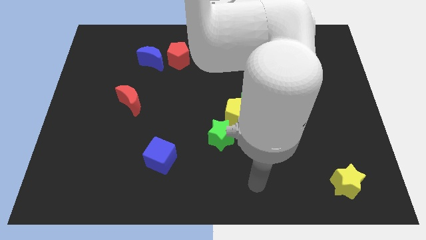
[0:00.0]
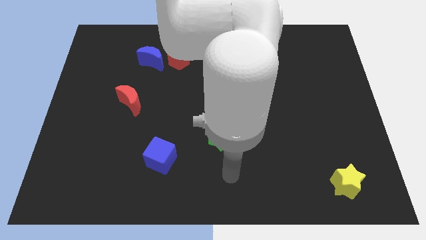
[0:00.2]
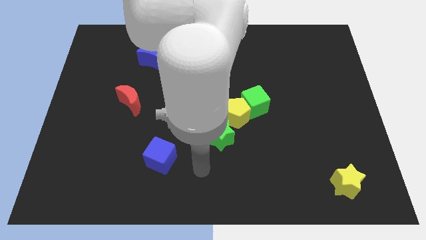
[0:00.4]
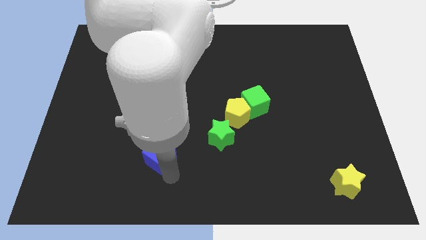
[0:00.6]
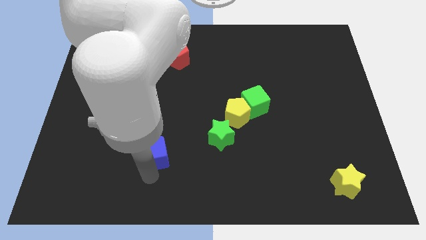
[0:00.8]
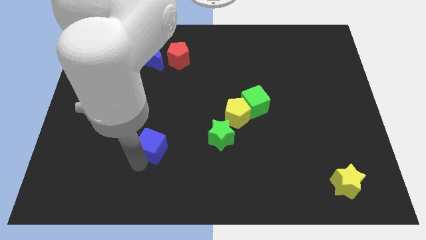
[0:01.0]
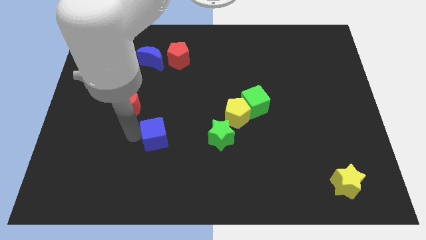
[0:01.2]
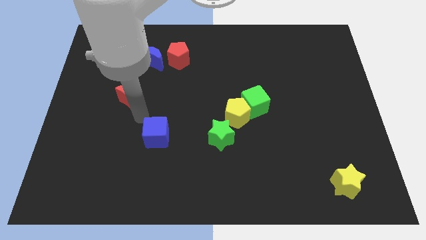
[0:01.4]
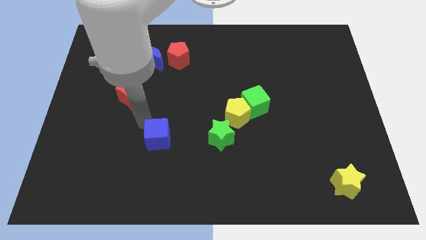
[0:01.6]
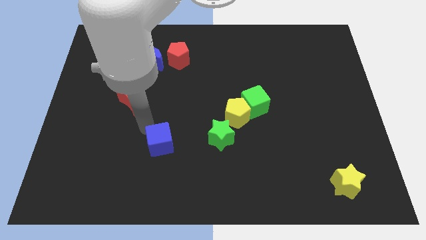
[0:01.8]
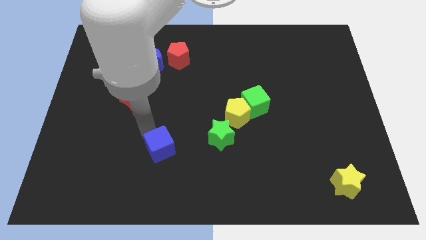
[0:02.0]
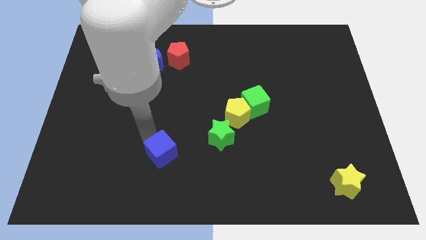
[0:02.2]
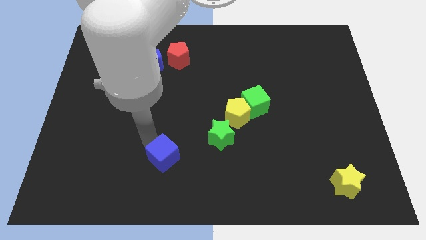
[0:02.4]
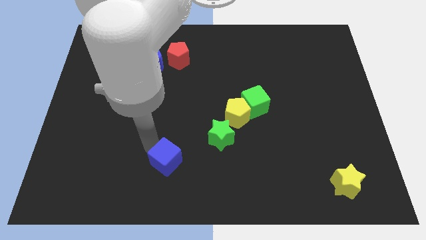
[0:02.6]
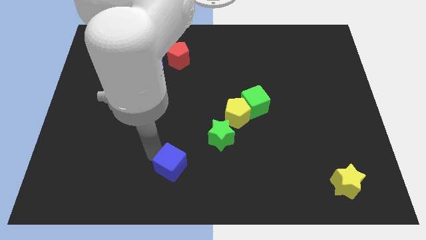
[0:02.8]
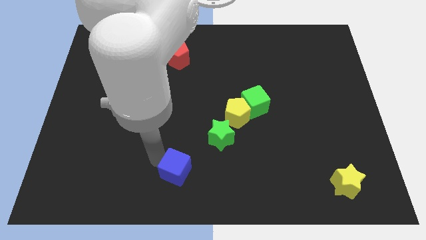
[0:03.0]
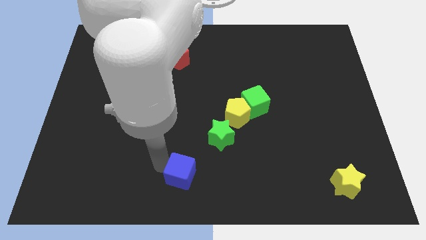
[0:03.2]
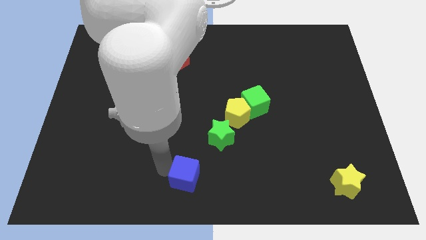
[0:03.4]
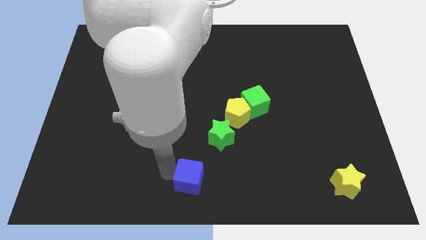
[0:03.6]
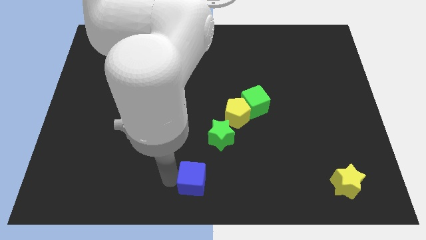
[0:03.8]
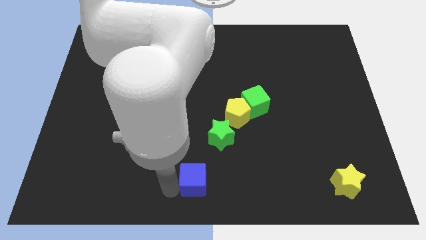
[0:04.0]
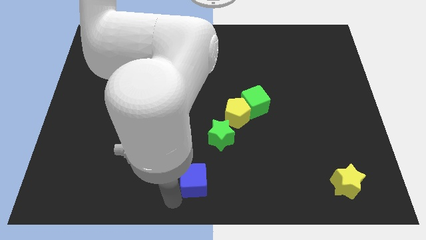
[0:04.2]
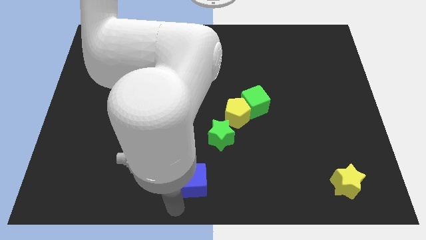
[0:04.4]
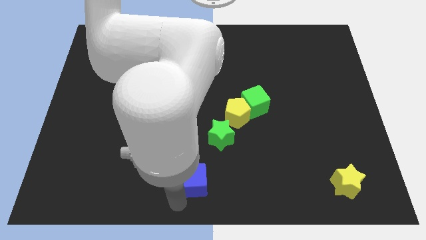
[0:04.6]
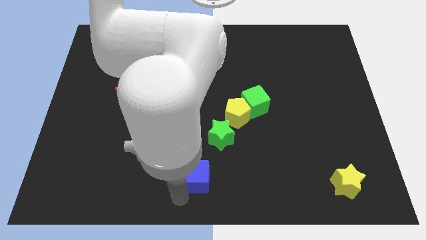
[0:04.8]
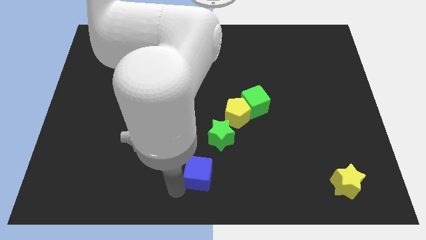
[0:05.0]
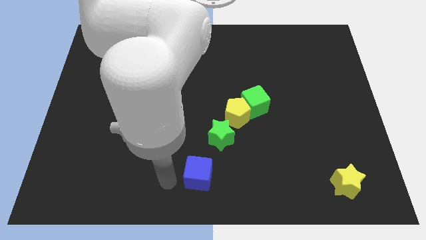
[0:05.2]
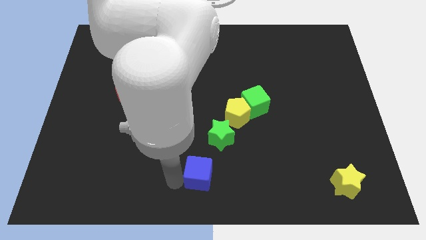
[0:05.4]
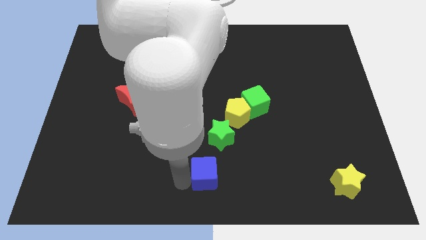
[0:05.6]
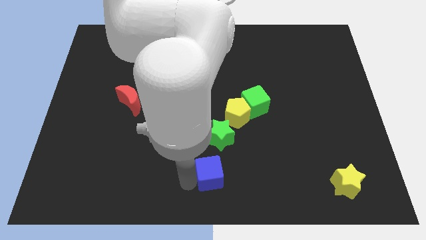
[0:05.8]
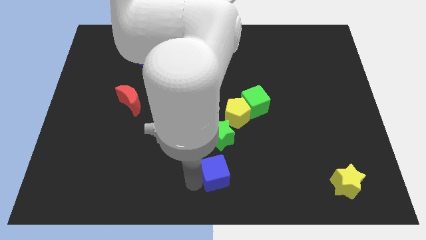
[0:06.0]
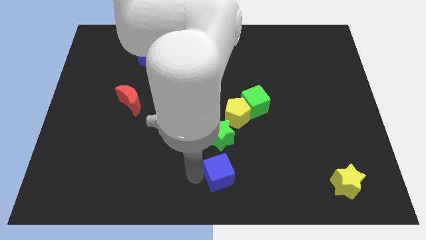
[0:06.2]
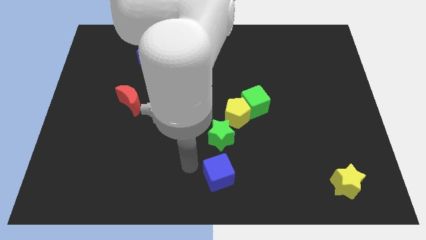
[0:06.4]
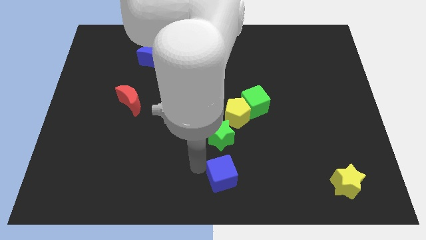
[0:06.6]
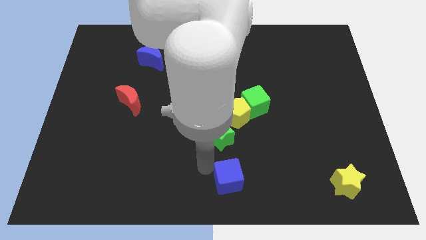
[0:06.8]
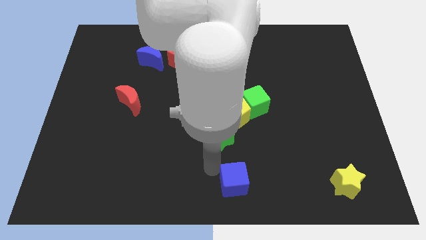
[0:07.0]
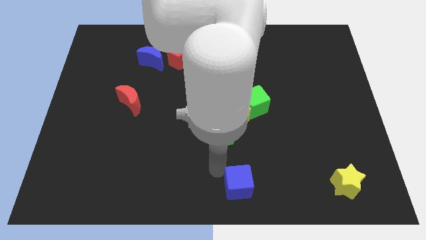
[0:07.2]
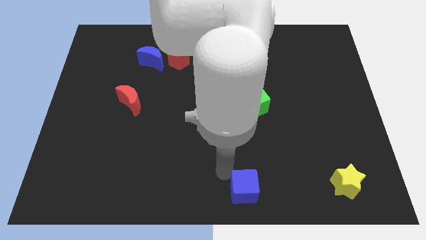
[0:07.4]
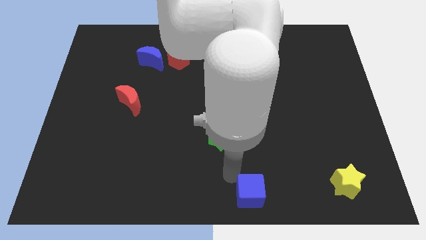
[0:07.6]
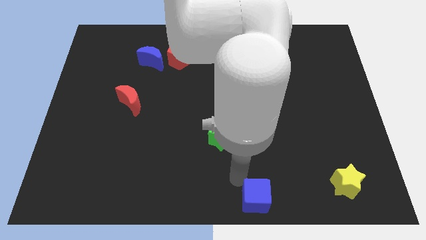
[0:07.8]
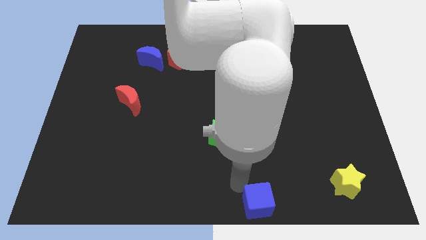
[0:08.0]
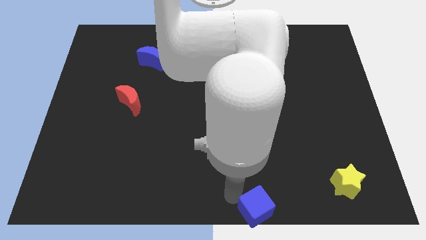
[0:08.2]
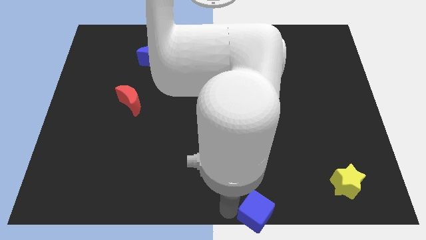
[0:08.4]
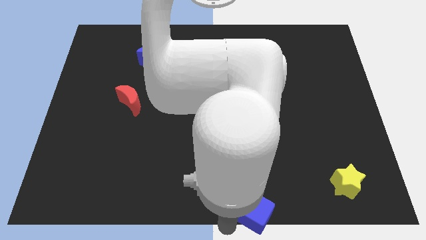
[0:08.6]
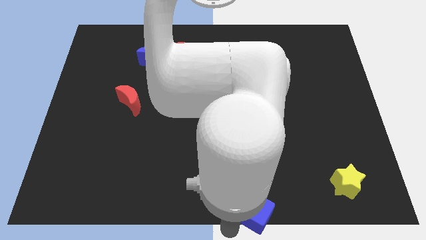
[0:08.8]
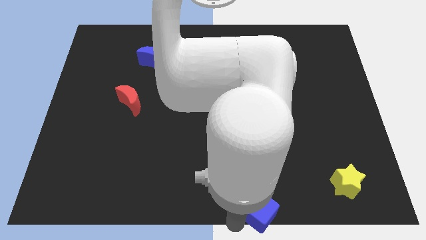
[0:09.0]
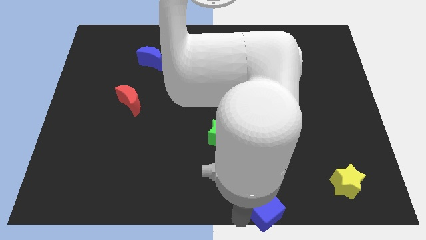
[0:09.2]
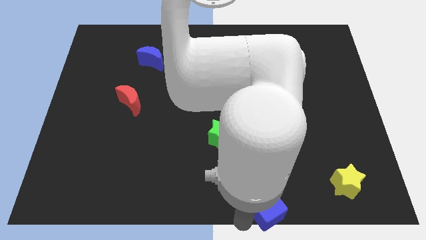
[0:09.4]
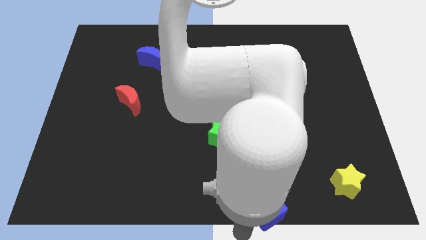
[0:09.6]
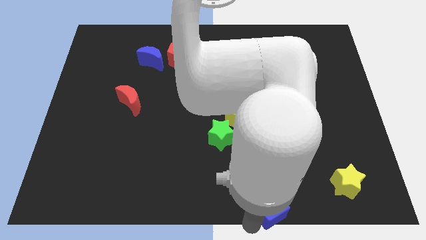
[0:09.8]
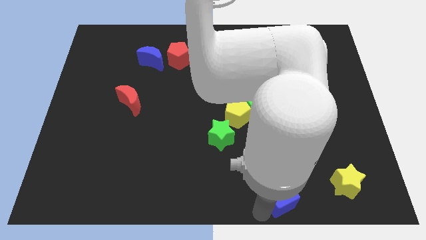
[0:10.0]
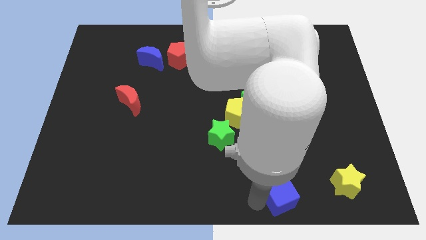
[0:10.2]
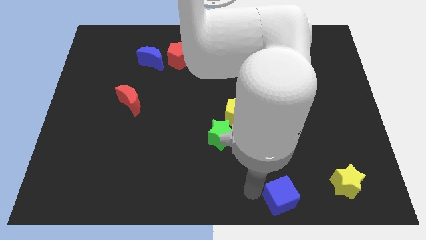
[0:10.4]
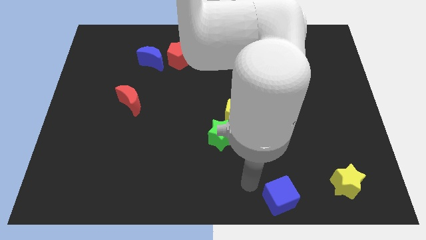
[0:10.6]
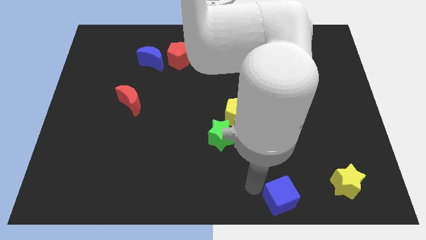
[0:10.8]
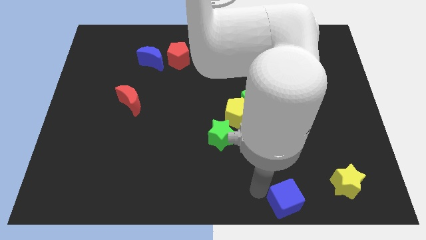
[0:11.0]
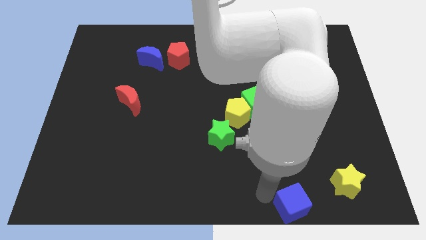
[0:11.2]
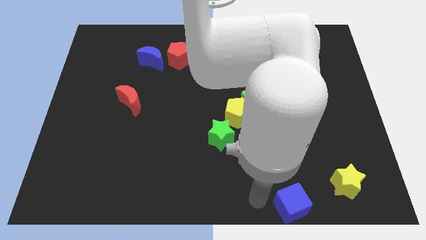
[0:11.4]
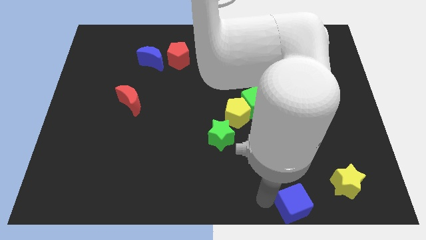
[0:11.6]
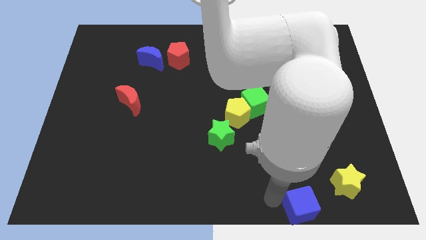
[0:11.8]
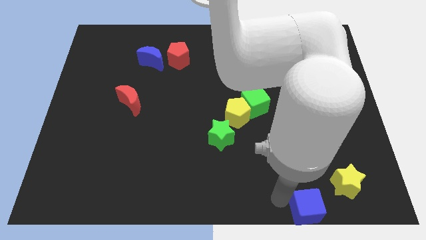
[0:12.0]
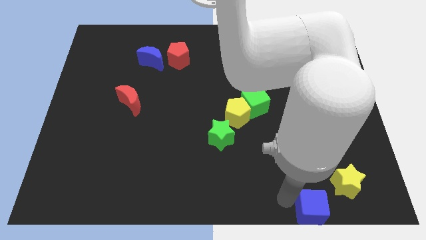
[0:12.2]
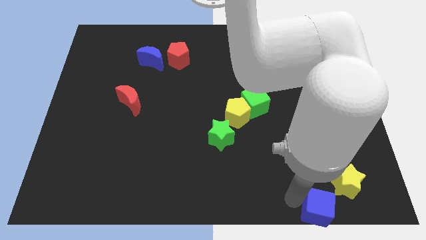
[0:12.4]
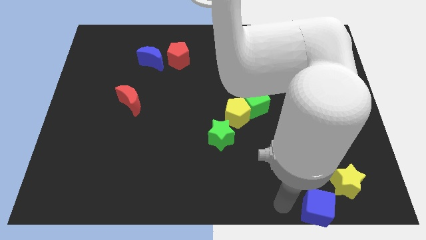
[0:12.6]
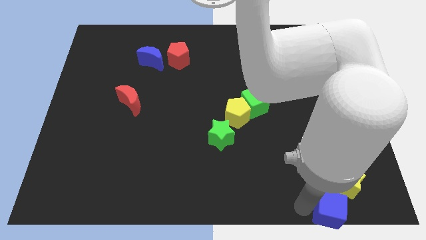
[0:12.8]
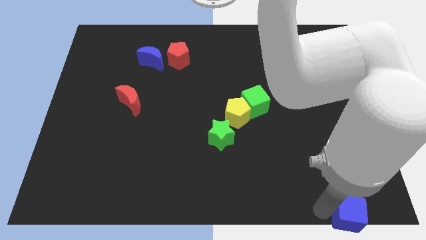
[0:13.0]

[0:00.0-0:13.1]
push the blue cube to the bottom right
